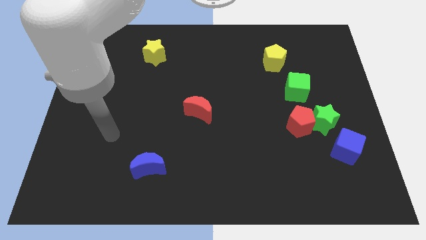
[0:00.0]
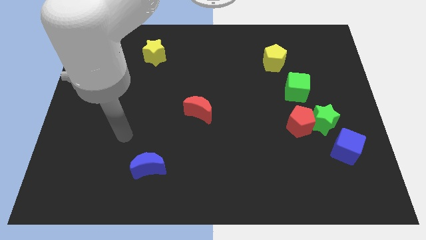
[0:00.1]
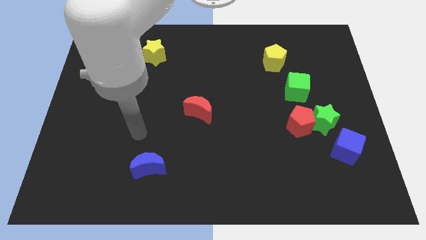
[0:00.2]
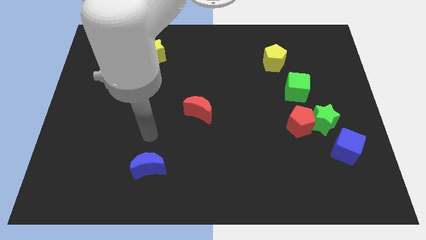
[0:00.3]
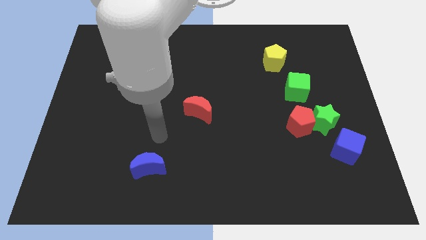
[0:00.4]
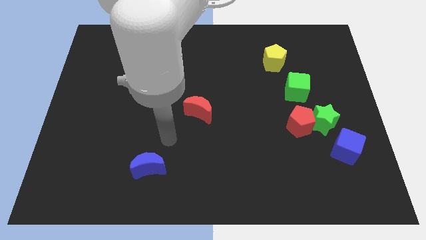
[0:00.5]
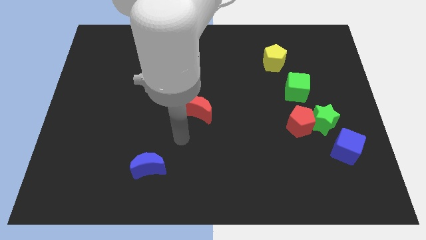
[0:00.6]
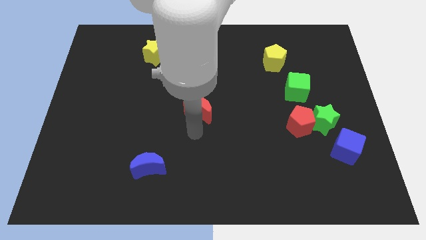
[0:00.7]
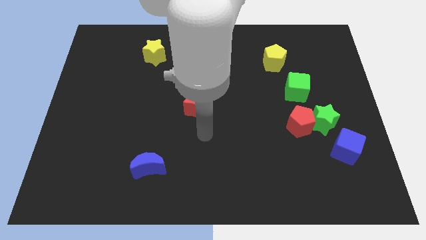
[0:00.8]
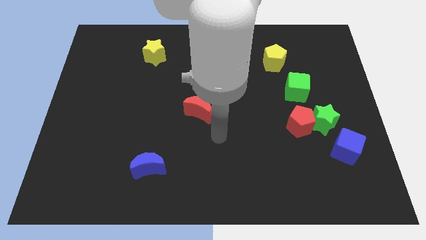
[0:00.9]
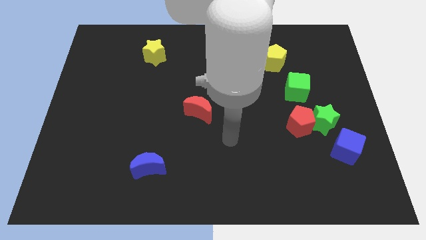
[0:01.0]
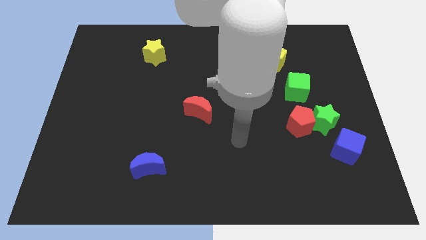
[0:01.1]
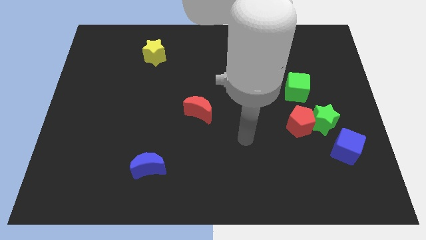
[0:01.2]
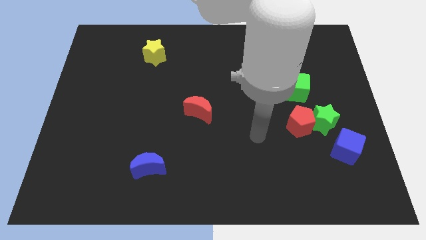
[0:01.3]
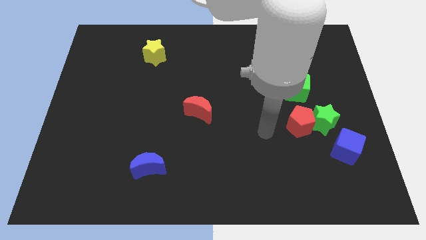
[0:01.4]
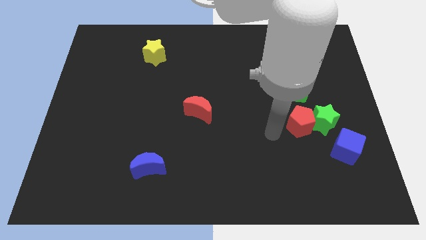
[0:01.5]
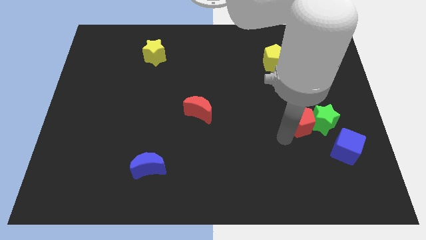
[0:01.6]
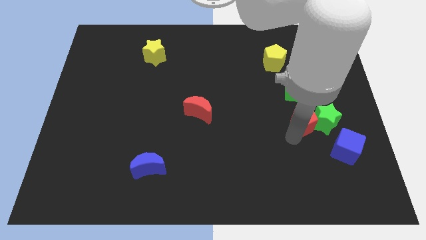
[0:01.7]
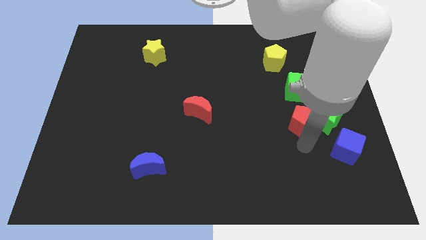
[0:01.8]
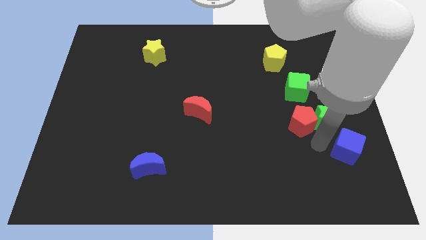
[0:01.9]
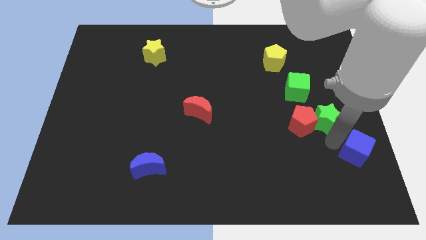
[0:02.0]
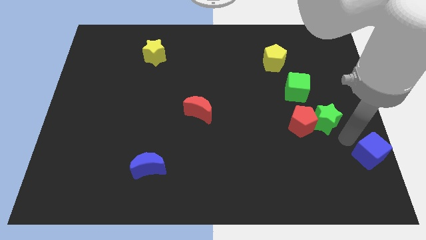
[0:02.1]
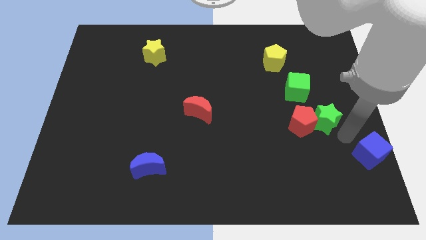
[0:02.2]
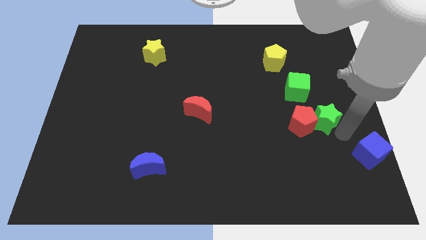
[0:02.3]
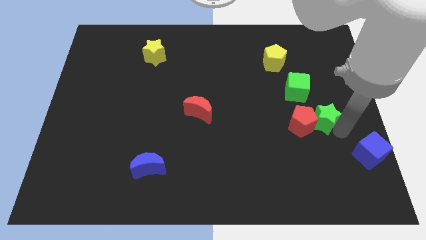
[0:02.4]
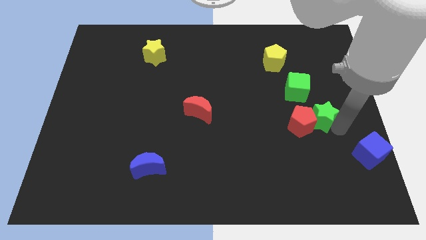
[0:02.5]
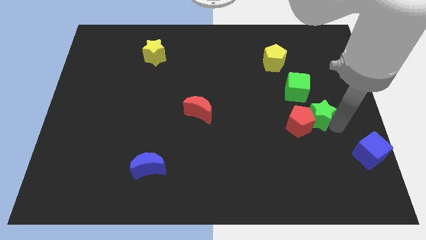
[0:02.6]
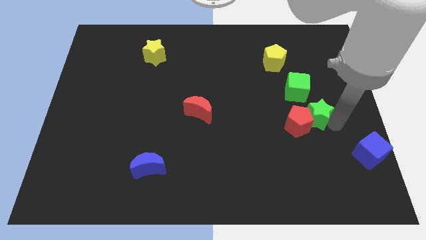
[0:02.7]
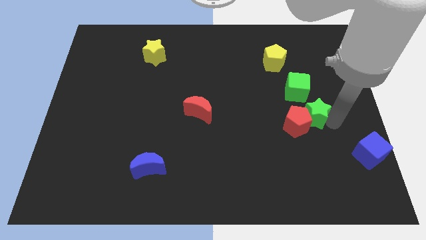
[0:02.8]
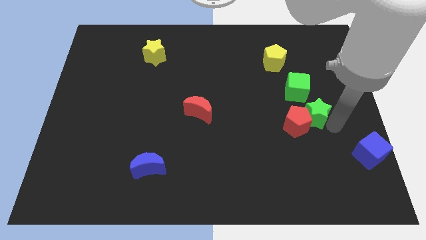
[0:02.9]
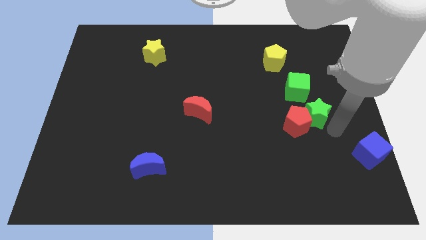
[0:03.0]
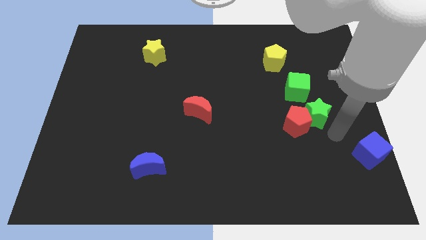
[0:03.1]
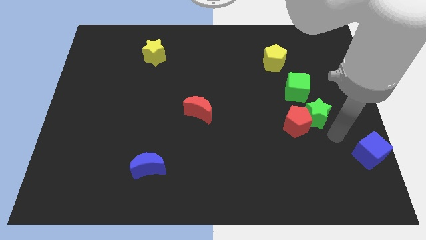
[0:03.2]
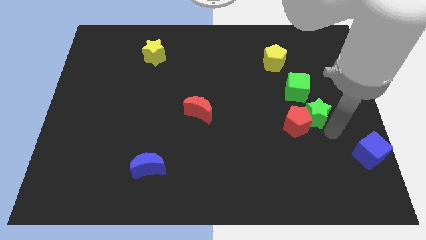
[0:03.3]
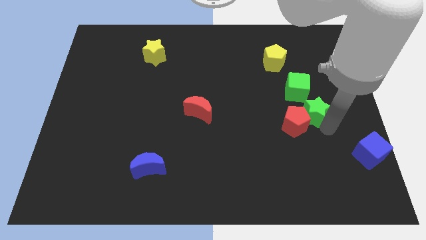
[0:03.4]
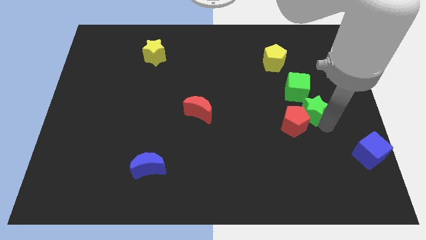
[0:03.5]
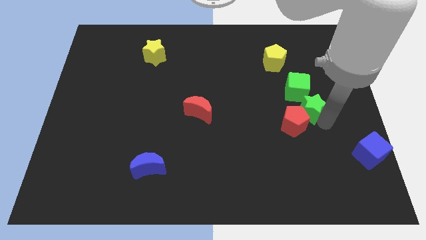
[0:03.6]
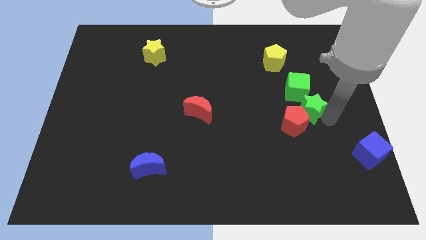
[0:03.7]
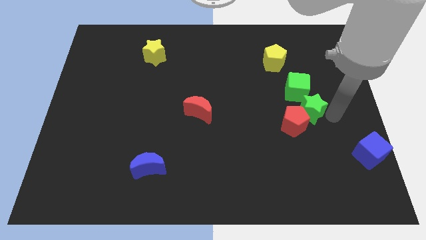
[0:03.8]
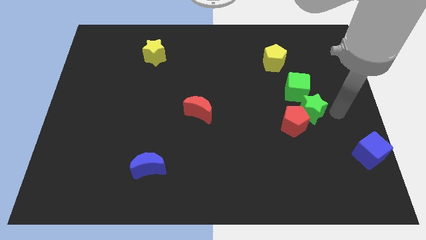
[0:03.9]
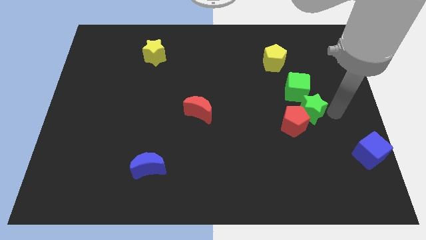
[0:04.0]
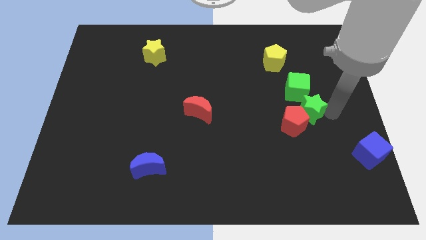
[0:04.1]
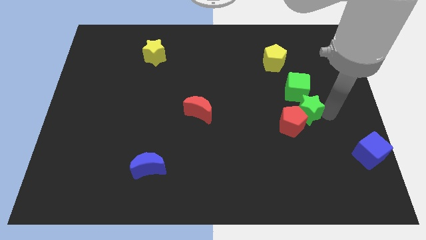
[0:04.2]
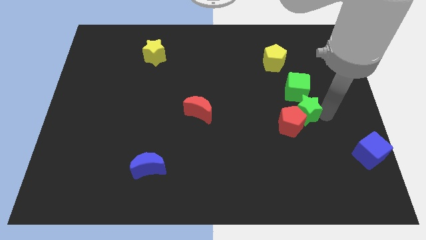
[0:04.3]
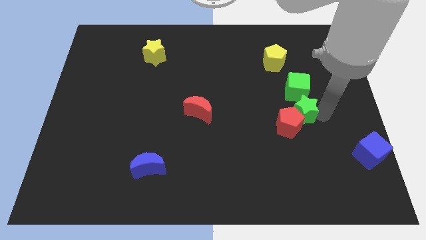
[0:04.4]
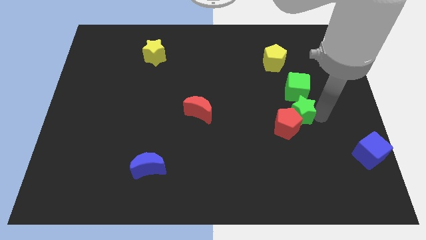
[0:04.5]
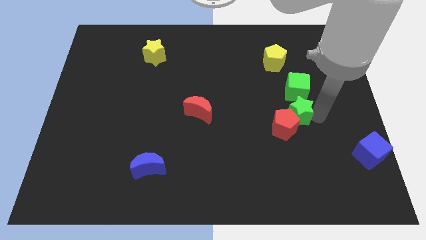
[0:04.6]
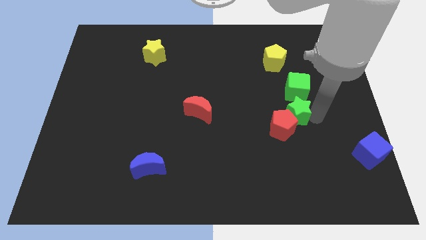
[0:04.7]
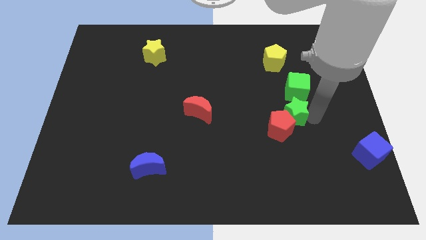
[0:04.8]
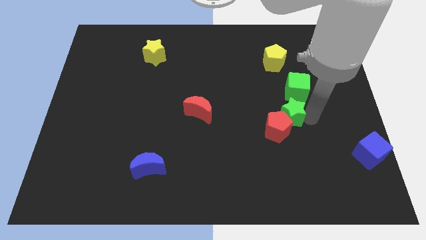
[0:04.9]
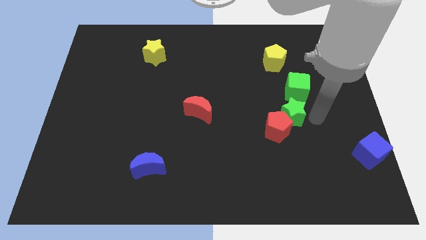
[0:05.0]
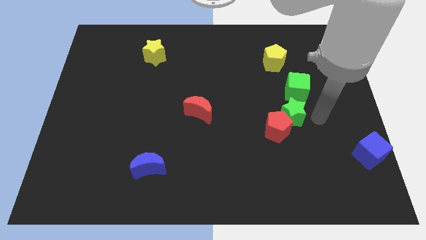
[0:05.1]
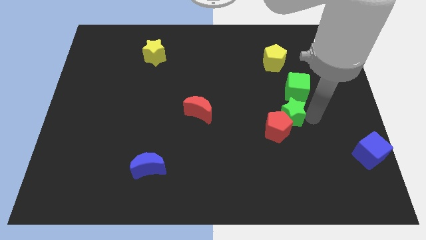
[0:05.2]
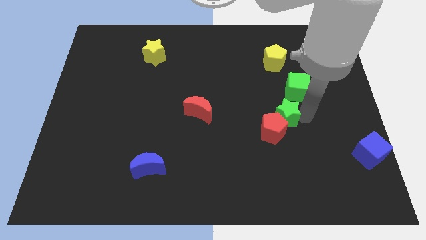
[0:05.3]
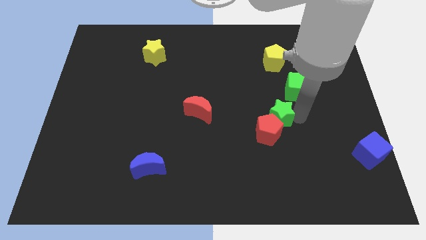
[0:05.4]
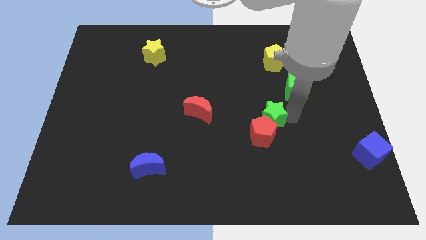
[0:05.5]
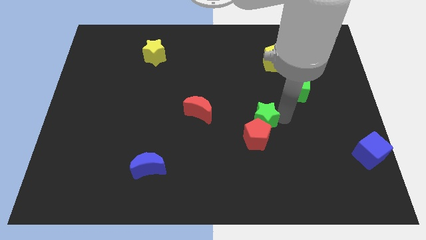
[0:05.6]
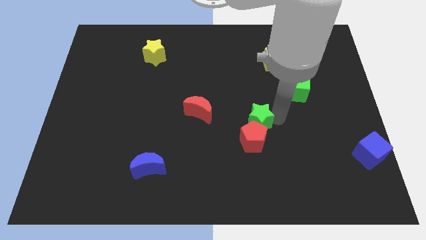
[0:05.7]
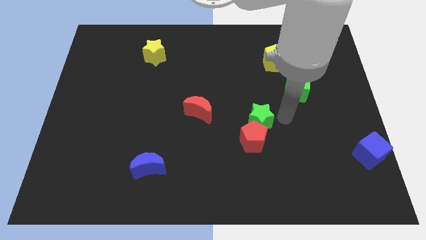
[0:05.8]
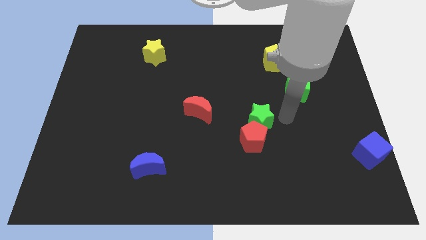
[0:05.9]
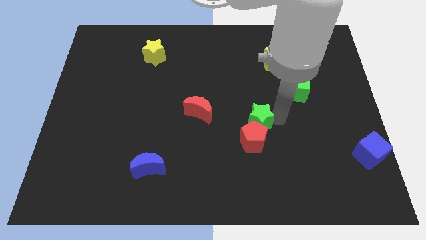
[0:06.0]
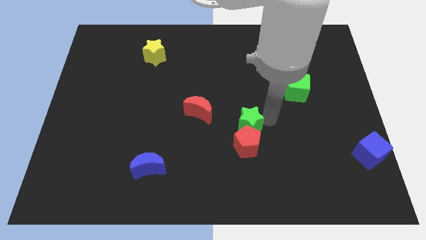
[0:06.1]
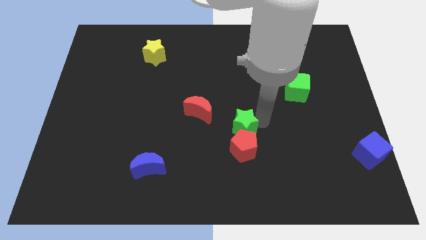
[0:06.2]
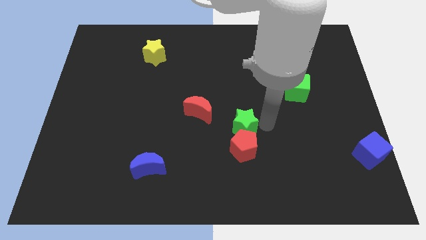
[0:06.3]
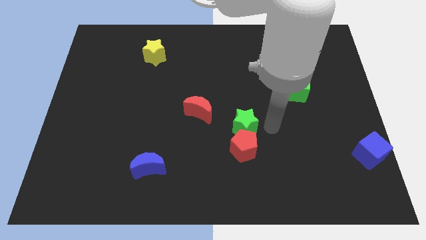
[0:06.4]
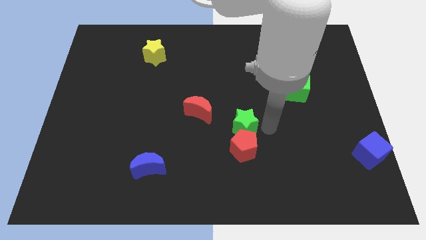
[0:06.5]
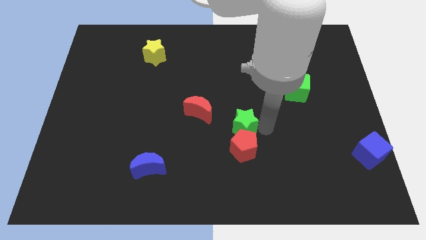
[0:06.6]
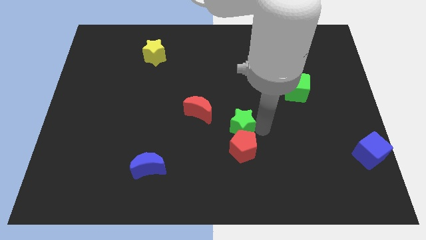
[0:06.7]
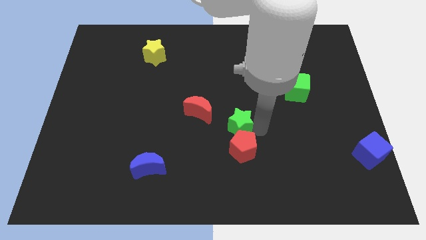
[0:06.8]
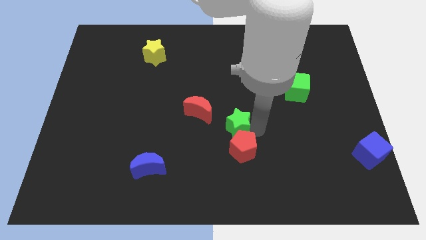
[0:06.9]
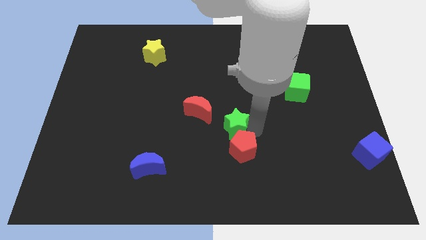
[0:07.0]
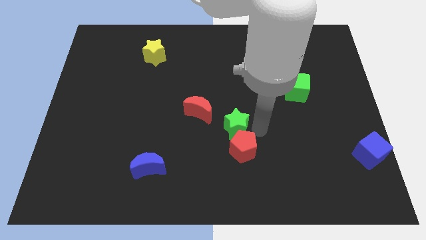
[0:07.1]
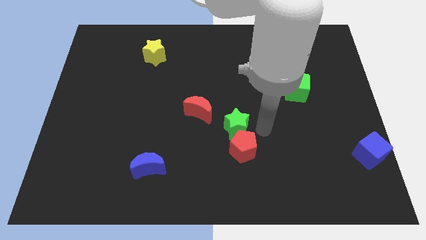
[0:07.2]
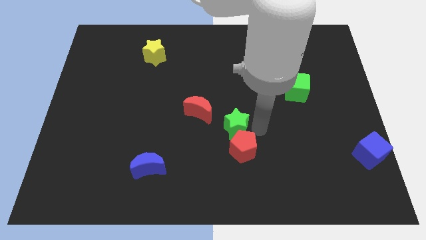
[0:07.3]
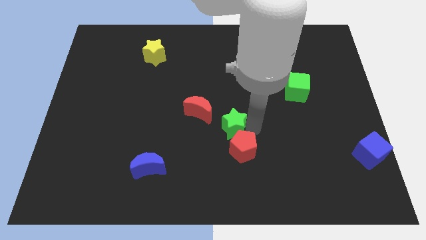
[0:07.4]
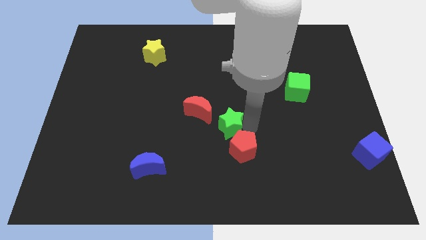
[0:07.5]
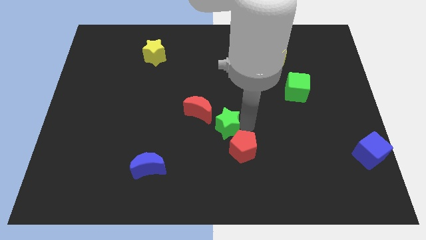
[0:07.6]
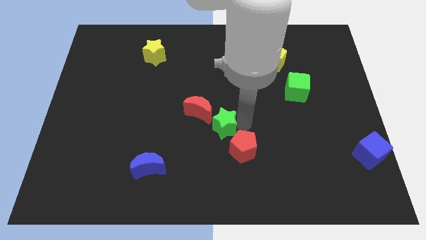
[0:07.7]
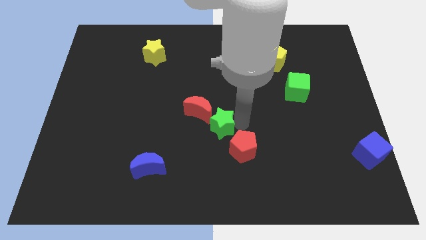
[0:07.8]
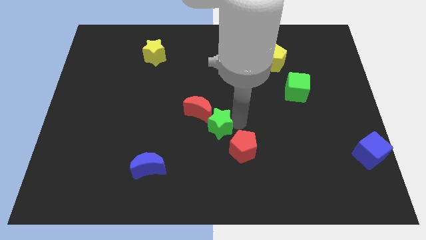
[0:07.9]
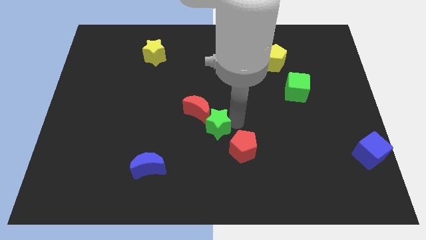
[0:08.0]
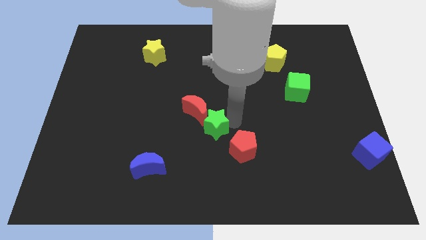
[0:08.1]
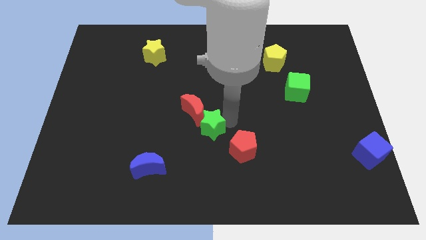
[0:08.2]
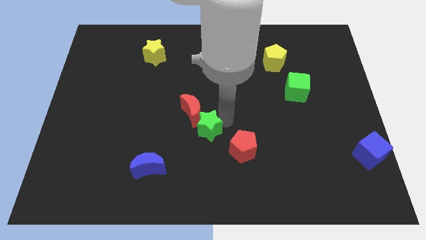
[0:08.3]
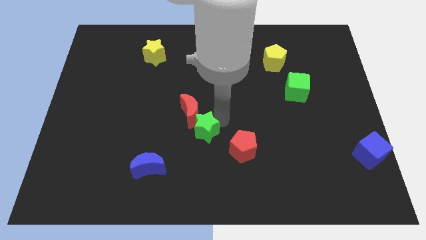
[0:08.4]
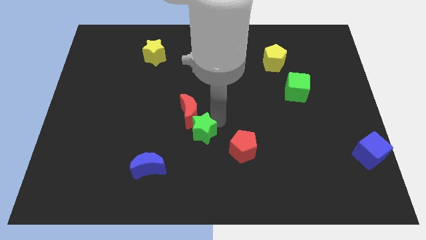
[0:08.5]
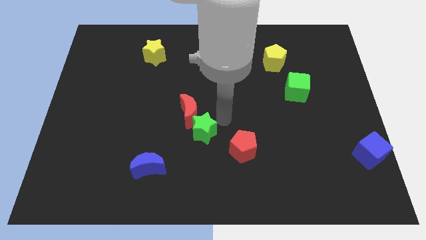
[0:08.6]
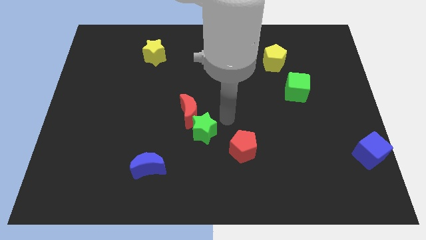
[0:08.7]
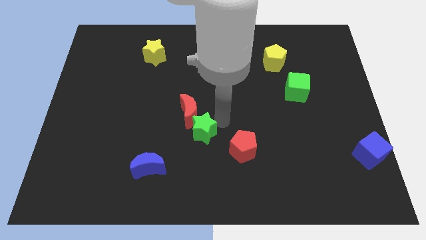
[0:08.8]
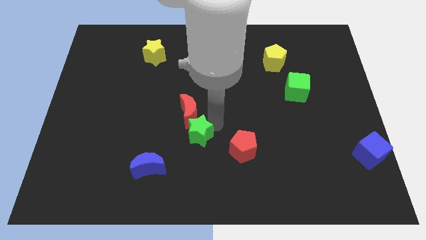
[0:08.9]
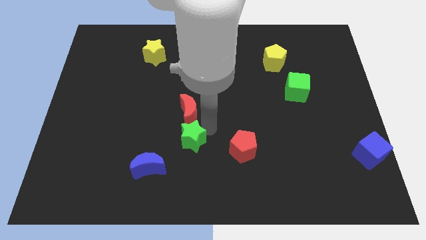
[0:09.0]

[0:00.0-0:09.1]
slide the green star to the top right side of the blue moon
